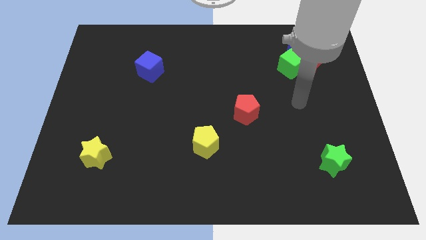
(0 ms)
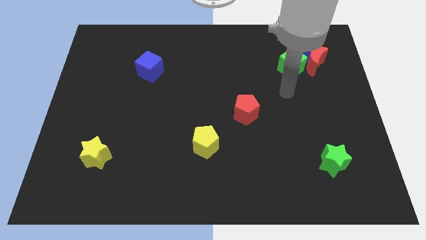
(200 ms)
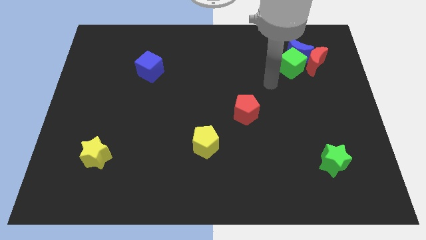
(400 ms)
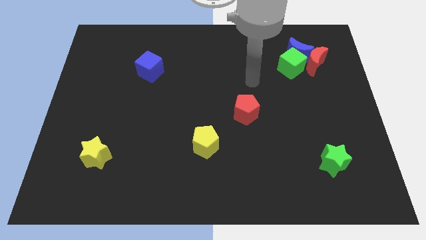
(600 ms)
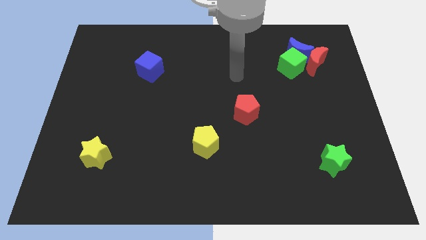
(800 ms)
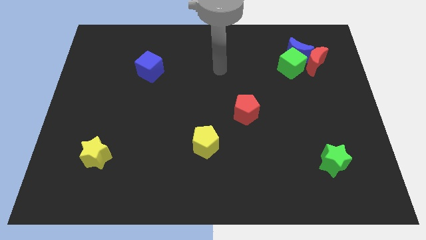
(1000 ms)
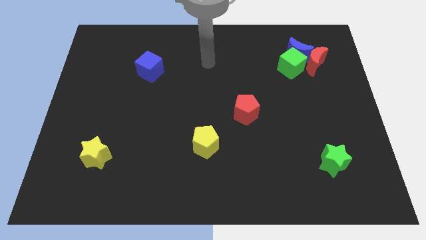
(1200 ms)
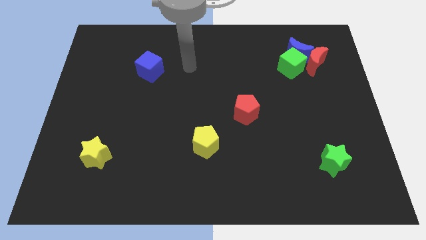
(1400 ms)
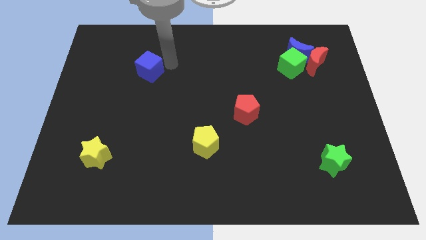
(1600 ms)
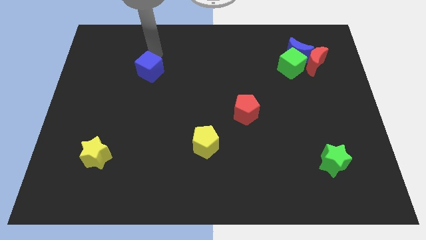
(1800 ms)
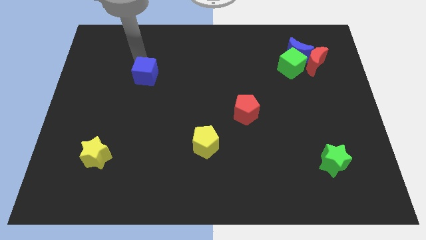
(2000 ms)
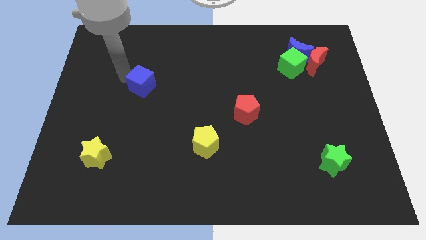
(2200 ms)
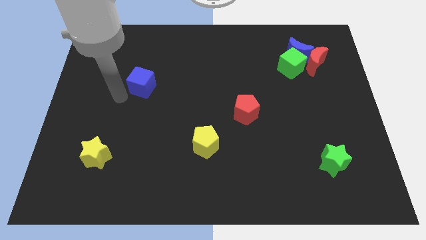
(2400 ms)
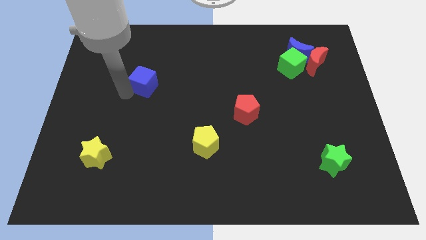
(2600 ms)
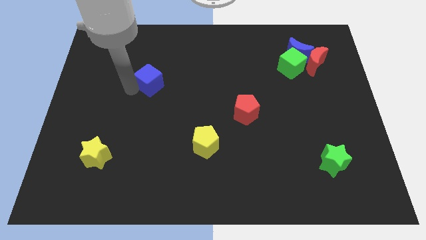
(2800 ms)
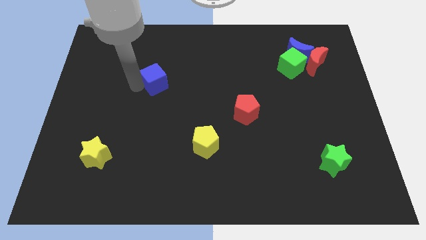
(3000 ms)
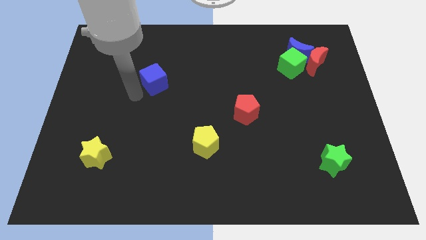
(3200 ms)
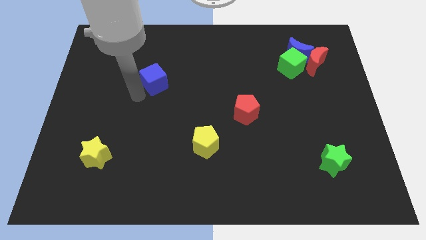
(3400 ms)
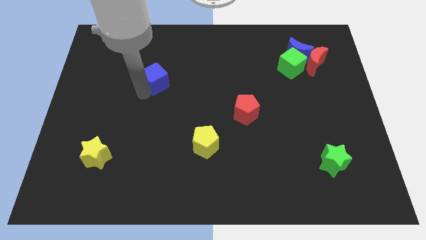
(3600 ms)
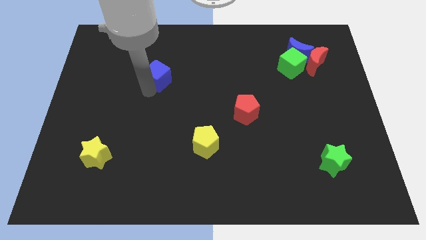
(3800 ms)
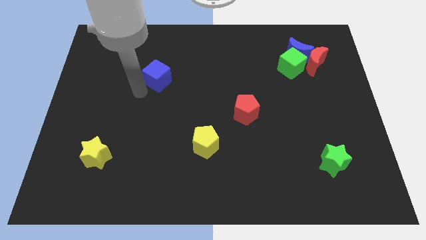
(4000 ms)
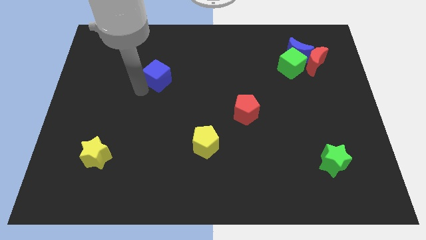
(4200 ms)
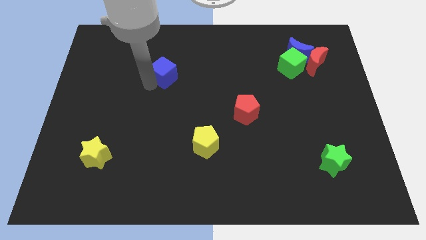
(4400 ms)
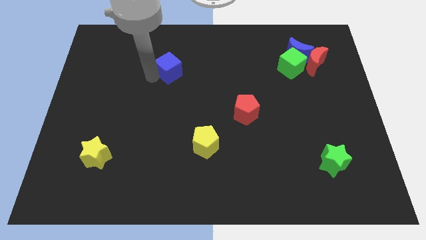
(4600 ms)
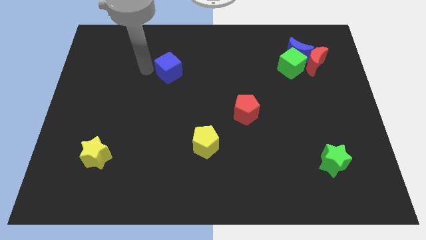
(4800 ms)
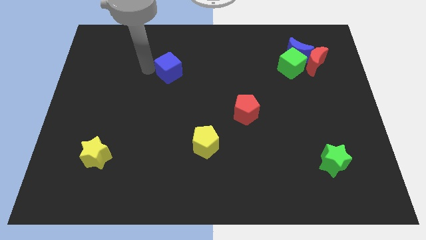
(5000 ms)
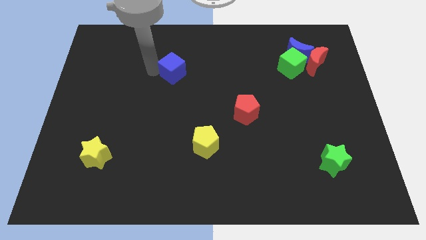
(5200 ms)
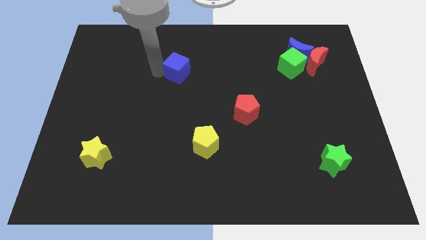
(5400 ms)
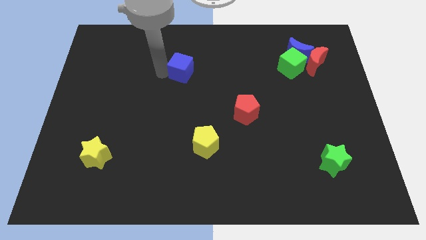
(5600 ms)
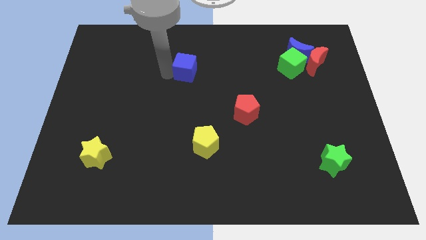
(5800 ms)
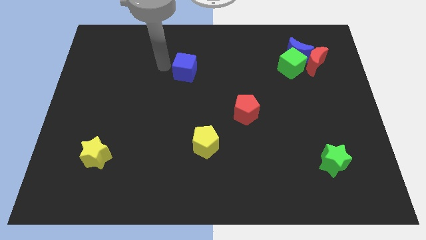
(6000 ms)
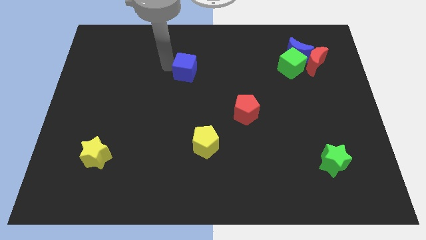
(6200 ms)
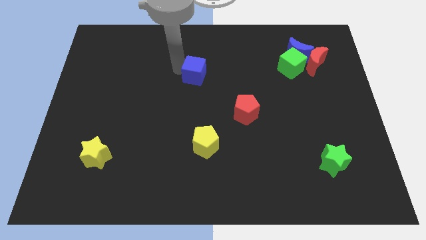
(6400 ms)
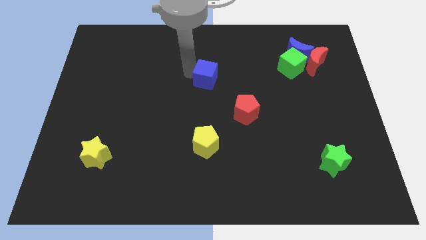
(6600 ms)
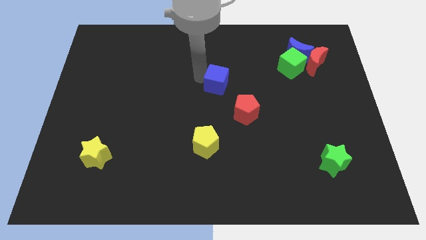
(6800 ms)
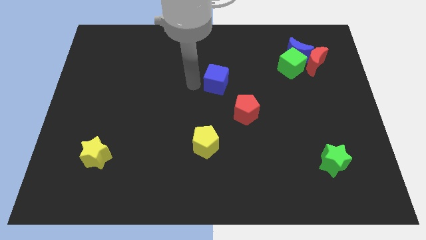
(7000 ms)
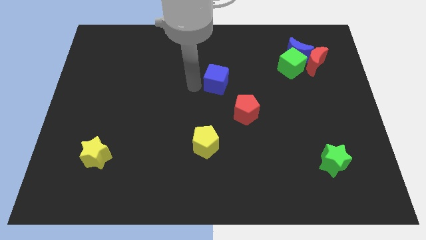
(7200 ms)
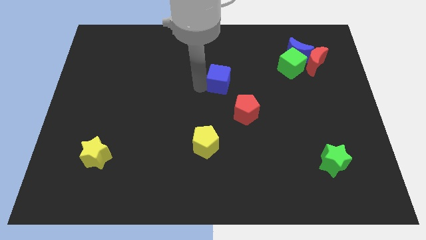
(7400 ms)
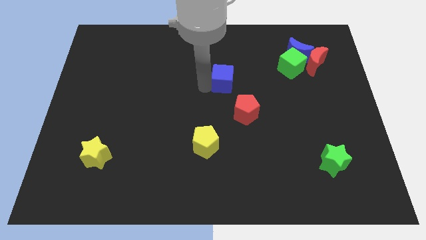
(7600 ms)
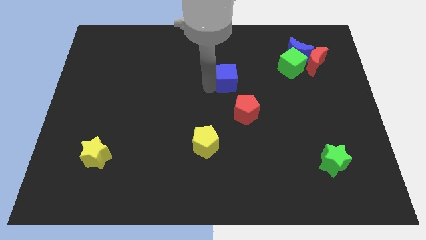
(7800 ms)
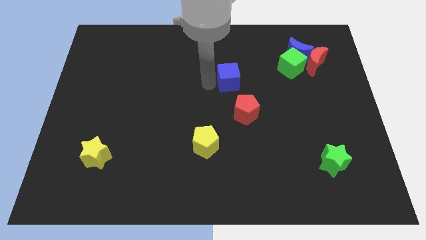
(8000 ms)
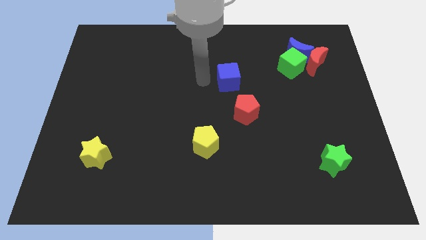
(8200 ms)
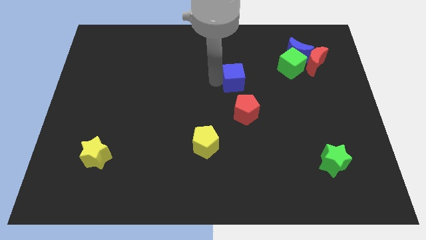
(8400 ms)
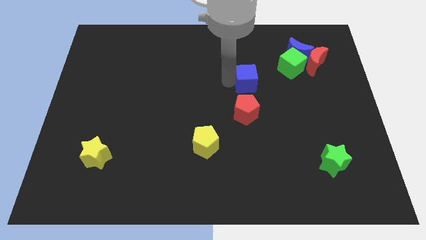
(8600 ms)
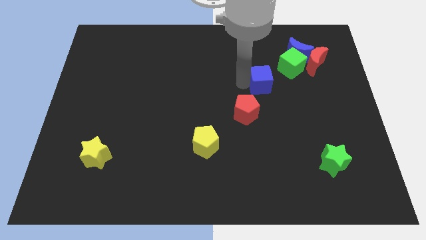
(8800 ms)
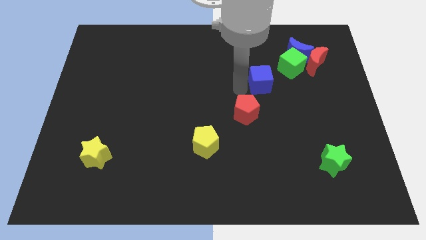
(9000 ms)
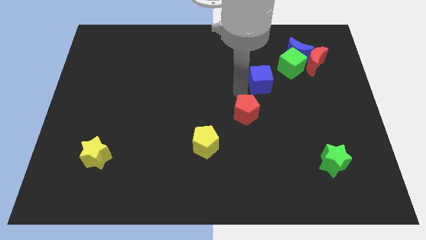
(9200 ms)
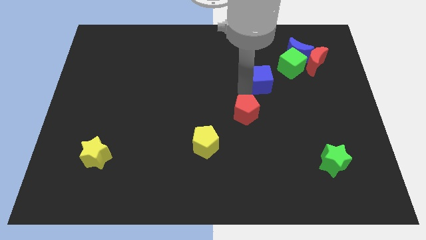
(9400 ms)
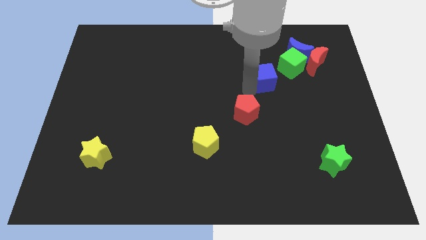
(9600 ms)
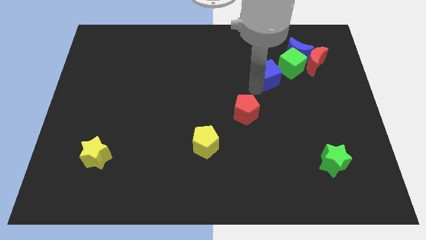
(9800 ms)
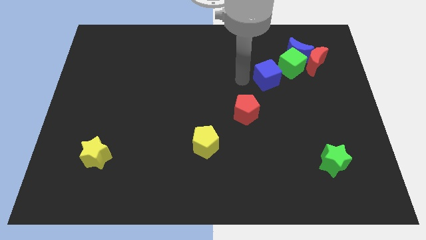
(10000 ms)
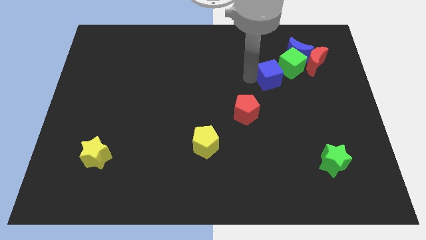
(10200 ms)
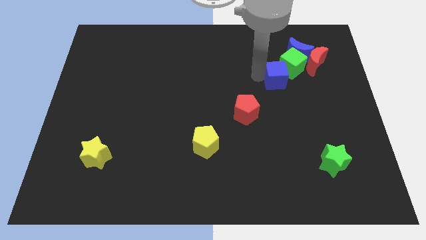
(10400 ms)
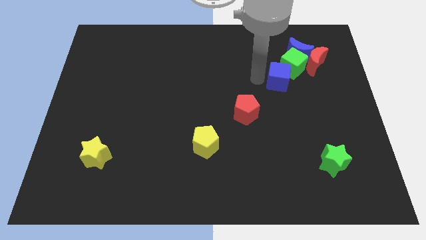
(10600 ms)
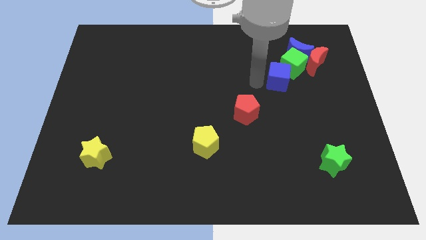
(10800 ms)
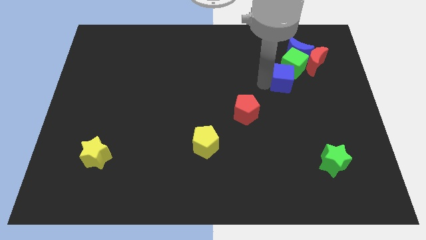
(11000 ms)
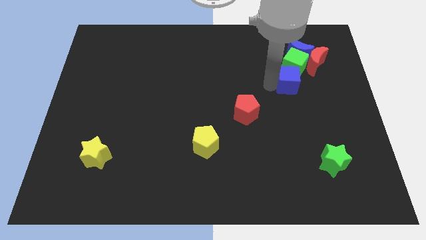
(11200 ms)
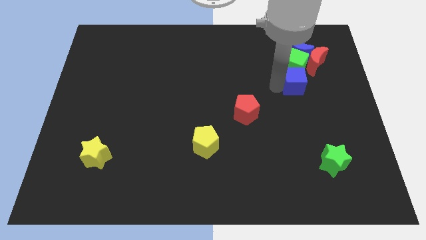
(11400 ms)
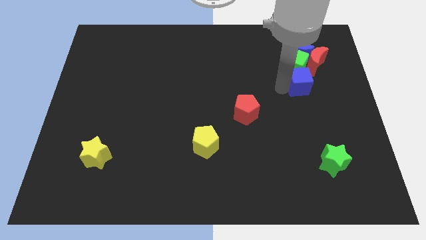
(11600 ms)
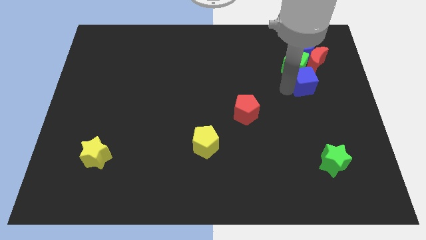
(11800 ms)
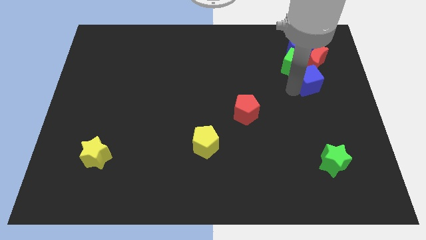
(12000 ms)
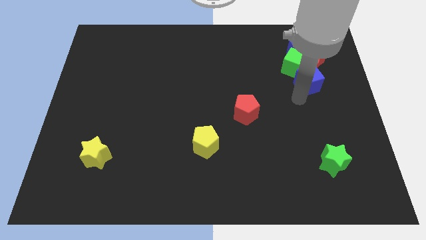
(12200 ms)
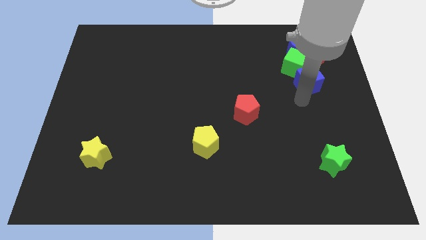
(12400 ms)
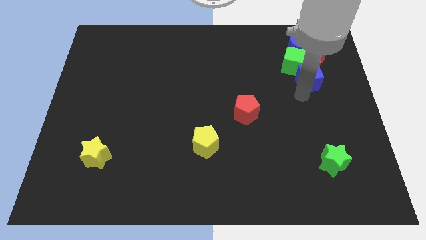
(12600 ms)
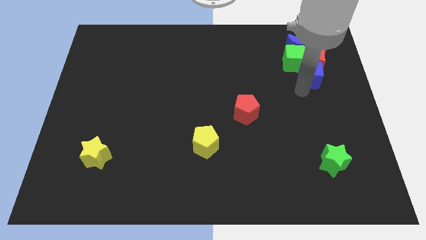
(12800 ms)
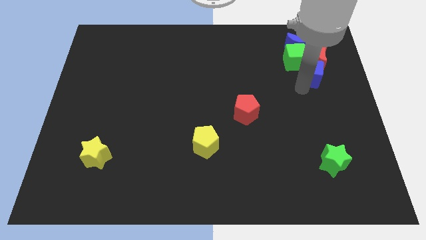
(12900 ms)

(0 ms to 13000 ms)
slide the blue cube next to the red moon

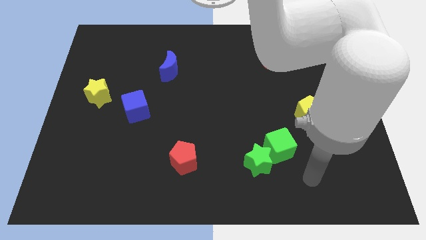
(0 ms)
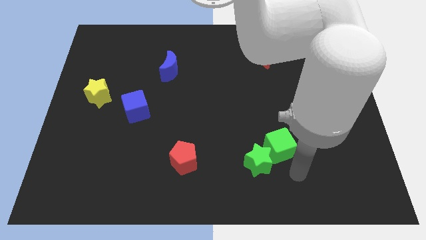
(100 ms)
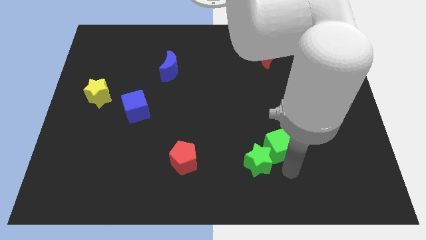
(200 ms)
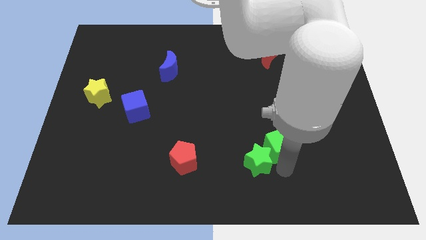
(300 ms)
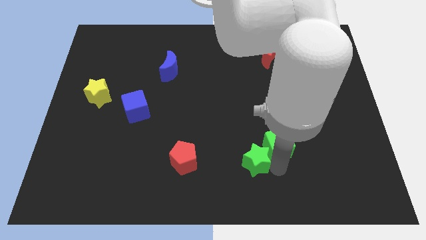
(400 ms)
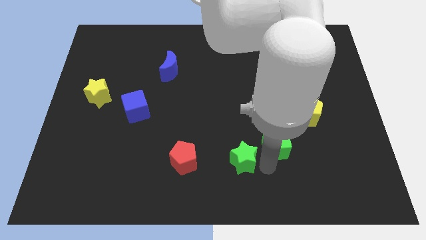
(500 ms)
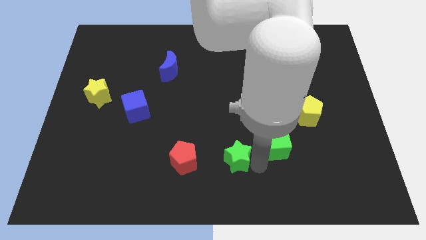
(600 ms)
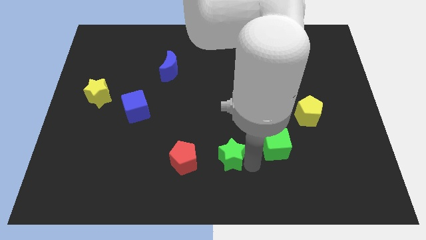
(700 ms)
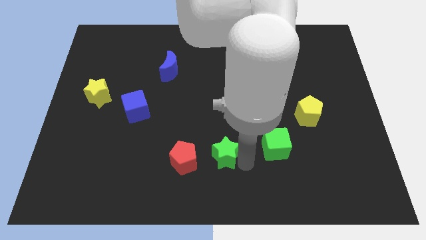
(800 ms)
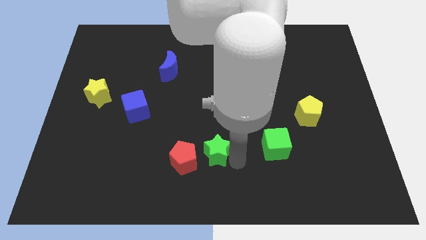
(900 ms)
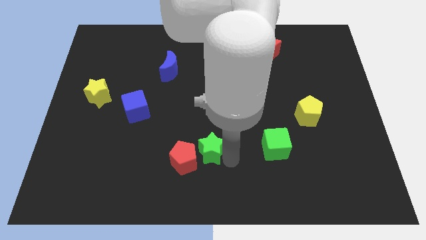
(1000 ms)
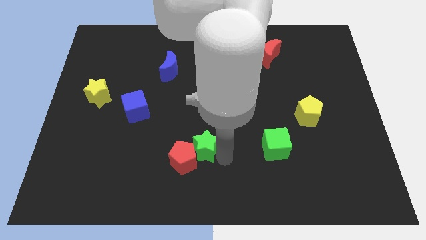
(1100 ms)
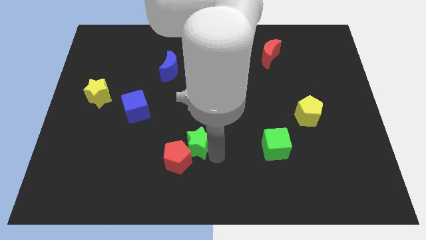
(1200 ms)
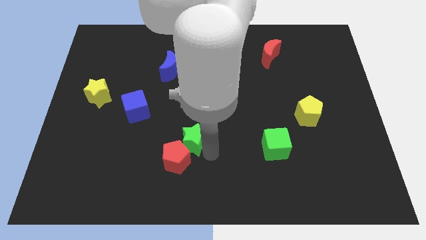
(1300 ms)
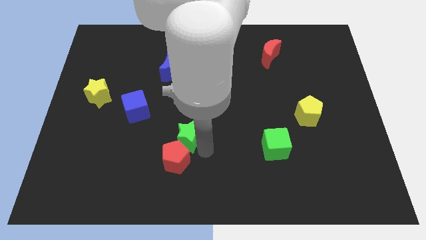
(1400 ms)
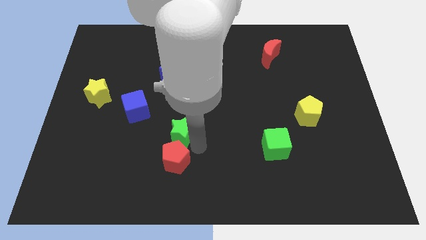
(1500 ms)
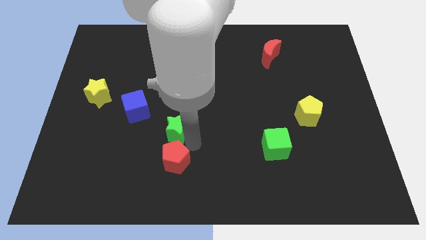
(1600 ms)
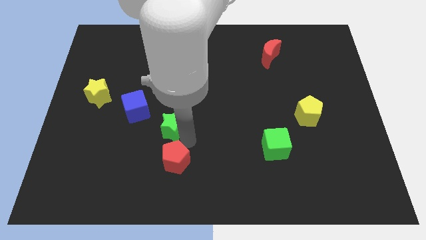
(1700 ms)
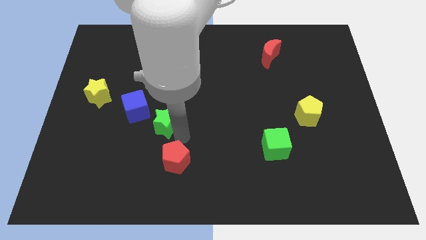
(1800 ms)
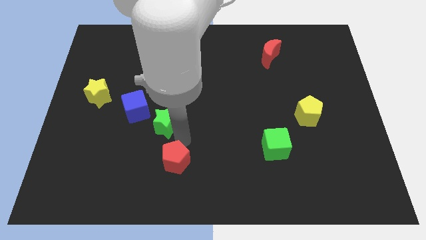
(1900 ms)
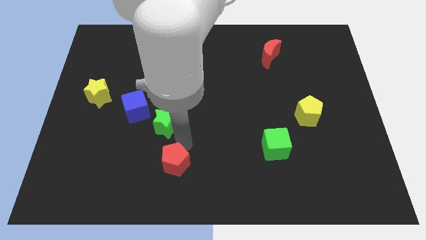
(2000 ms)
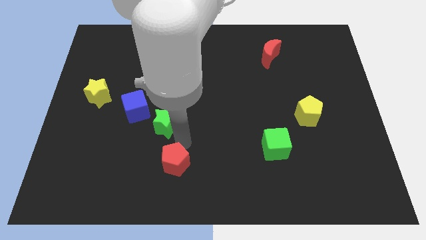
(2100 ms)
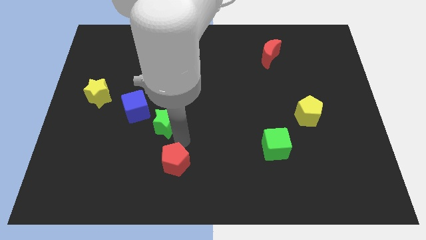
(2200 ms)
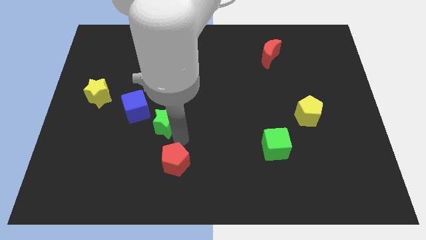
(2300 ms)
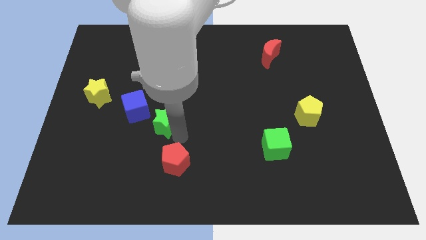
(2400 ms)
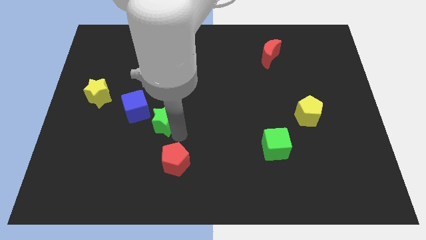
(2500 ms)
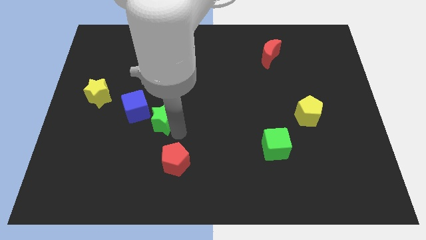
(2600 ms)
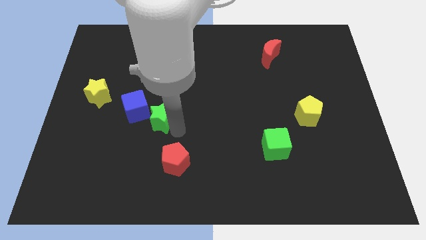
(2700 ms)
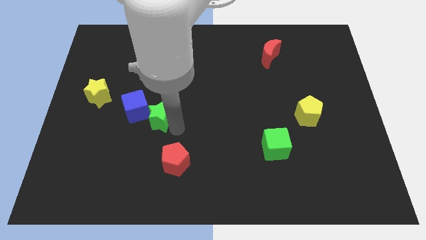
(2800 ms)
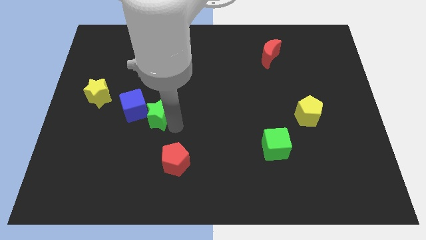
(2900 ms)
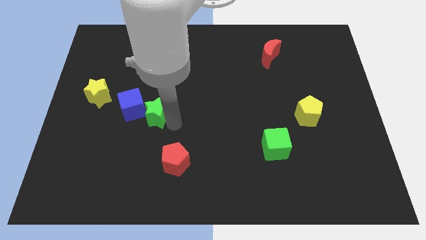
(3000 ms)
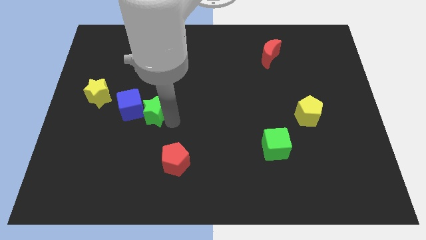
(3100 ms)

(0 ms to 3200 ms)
put the green star close to the blue cube
